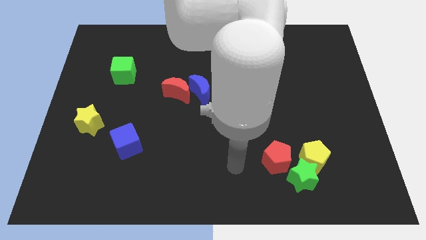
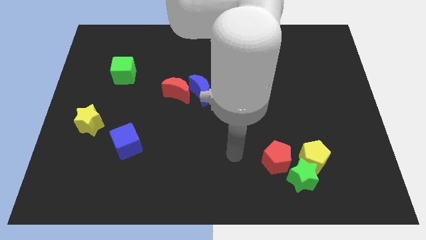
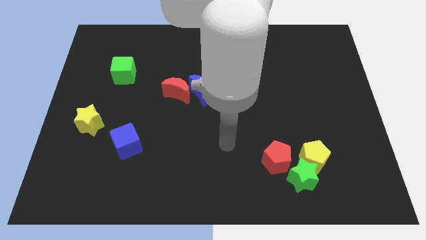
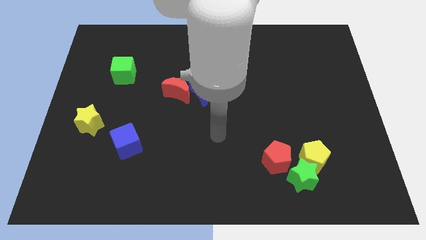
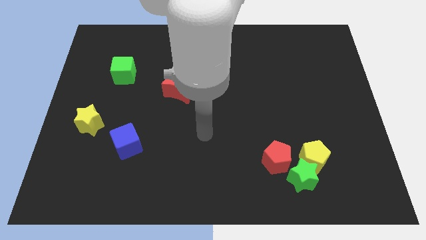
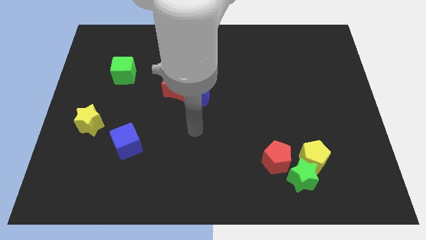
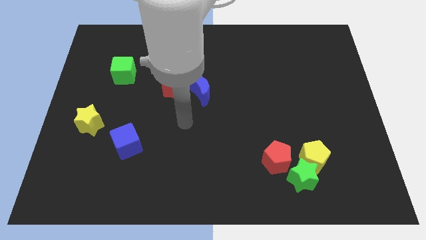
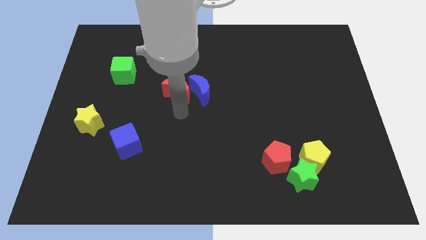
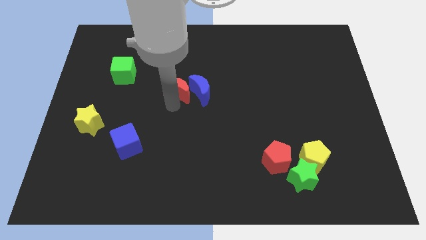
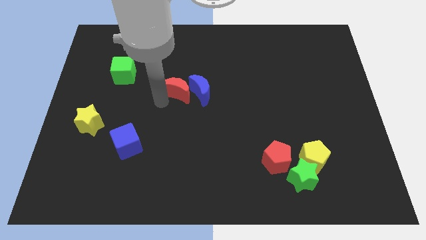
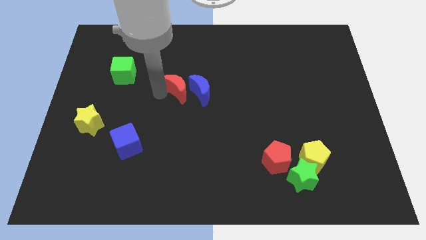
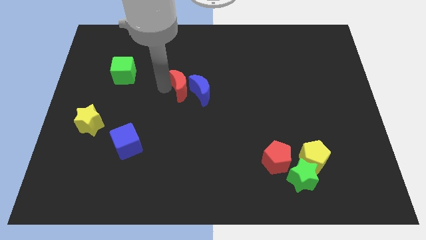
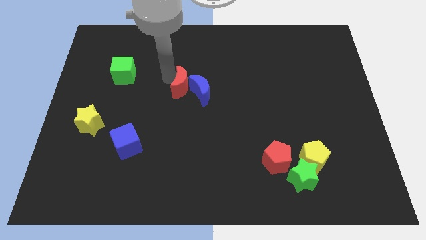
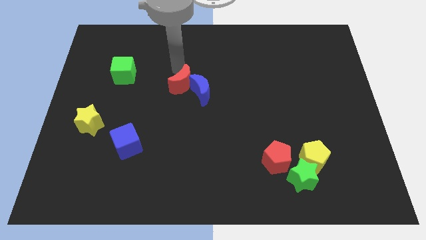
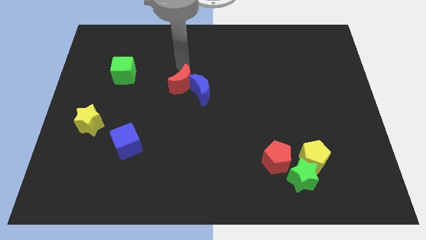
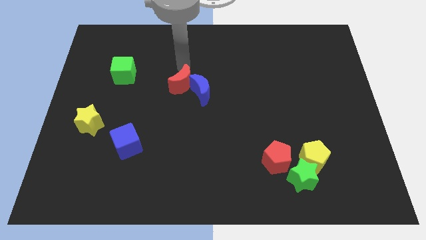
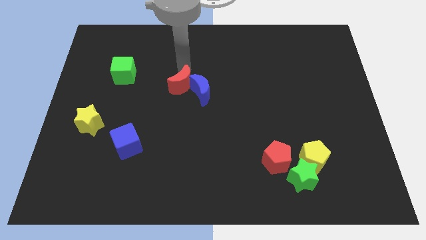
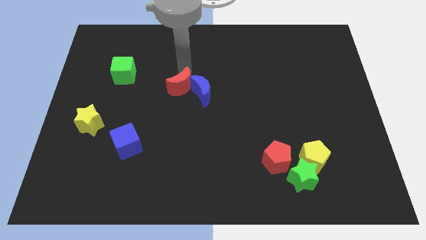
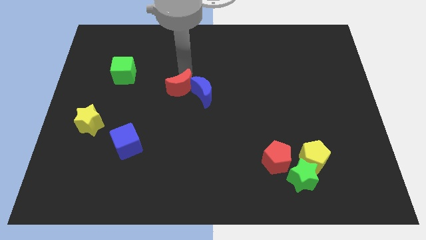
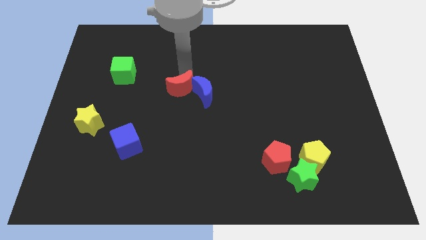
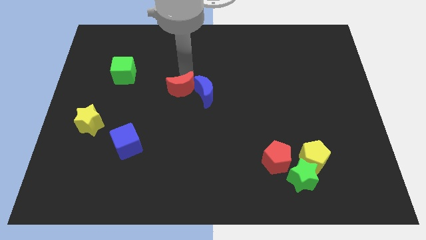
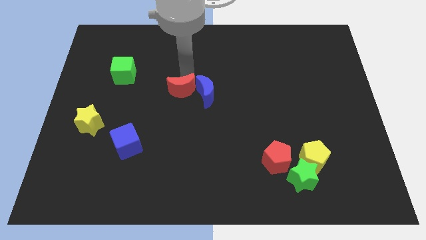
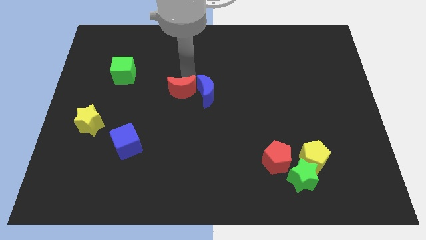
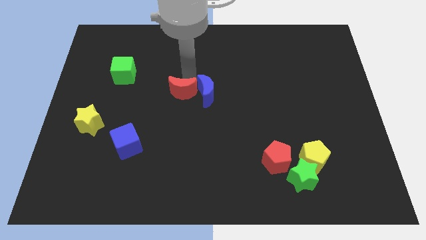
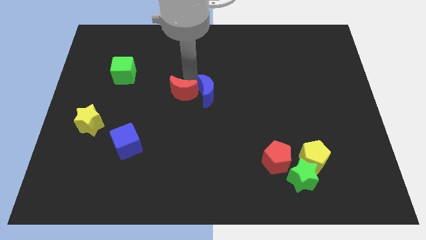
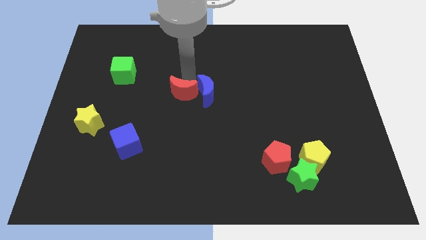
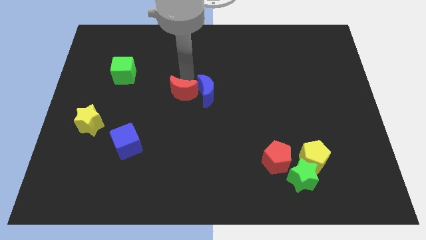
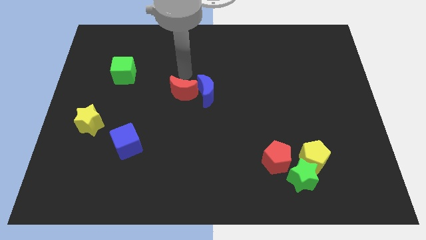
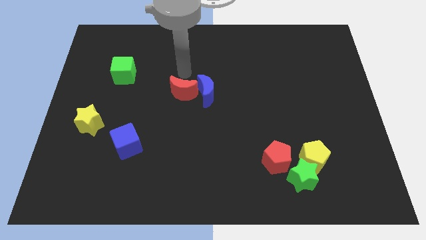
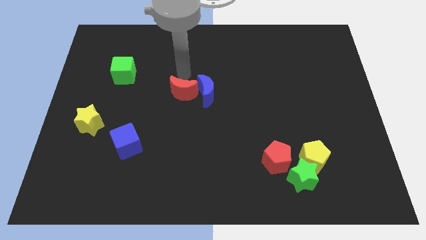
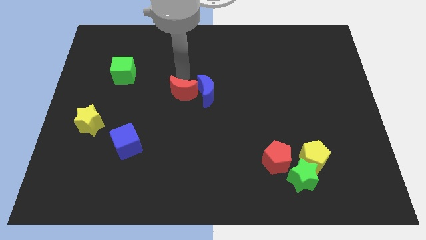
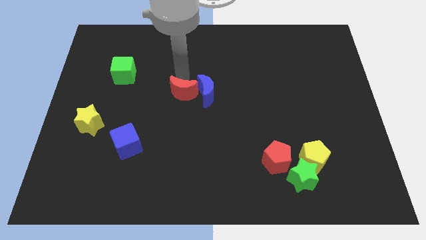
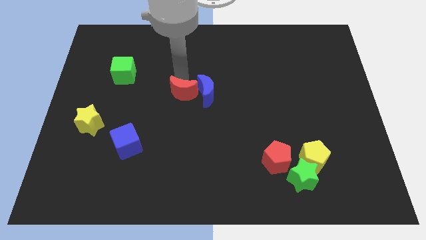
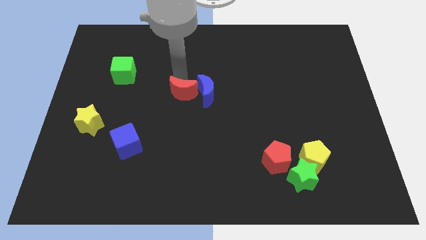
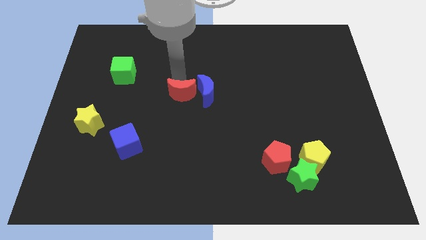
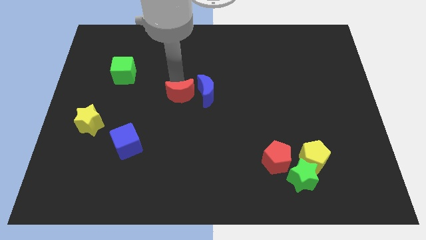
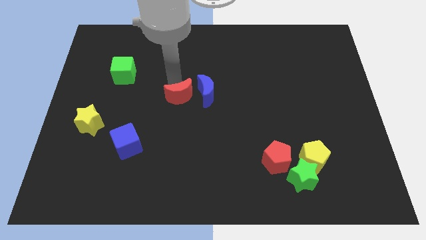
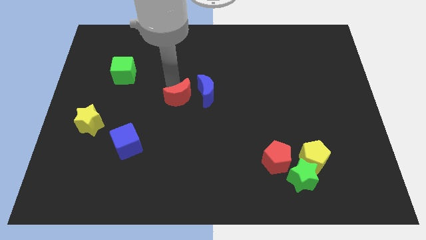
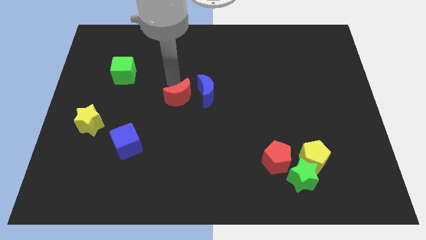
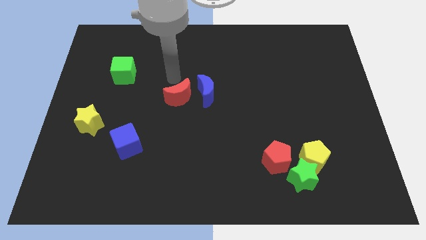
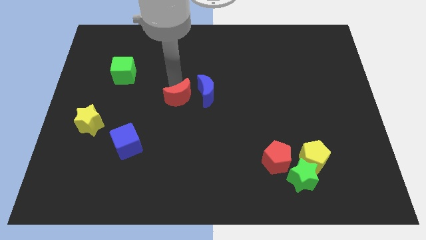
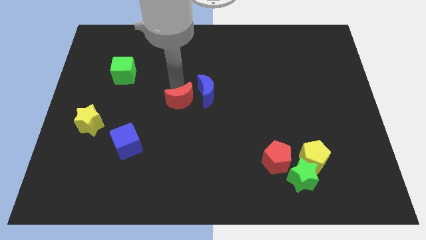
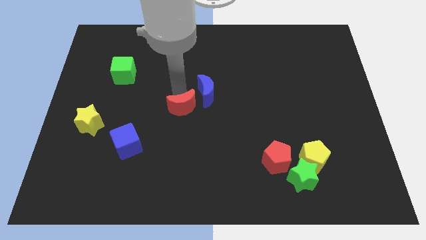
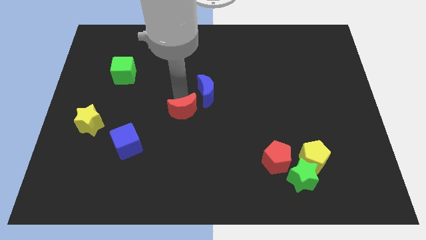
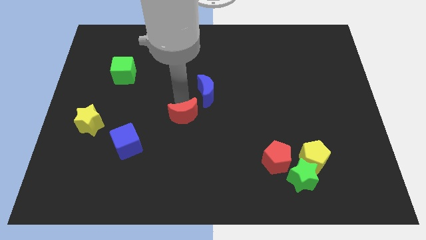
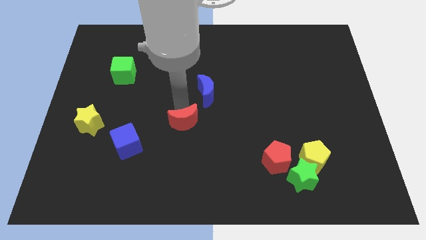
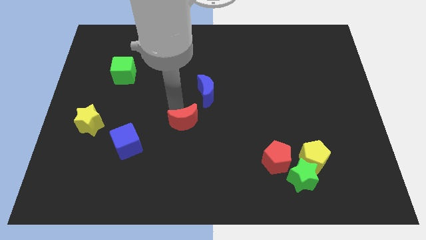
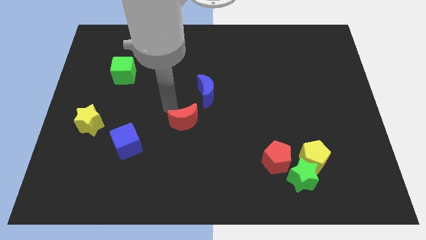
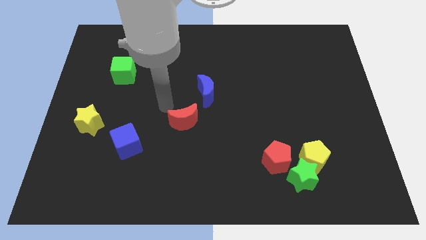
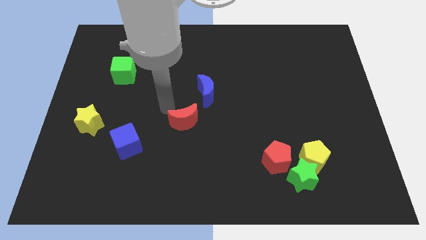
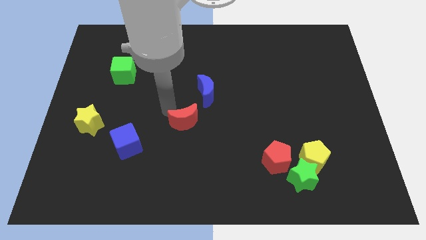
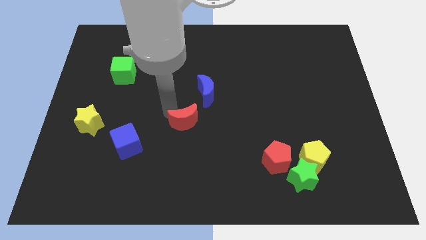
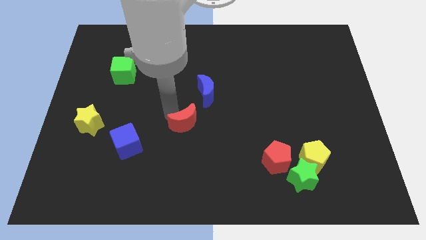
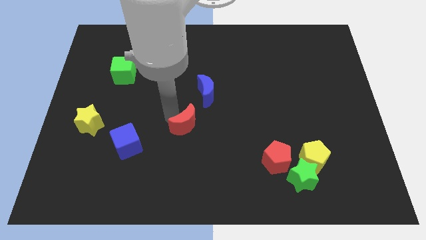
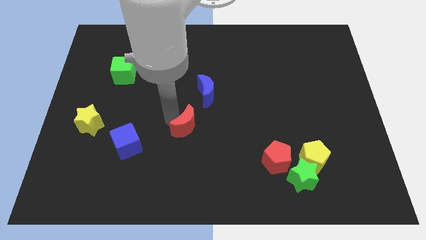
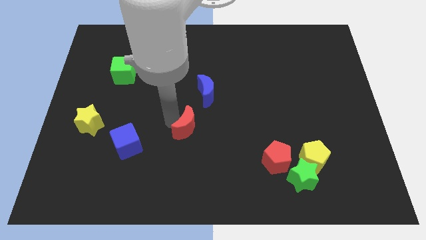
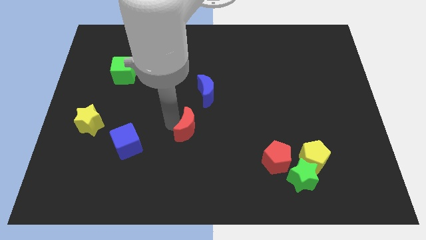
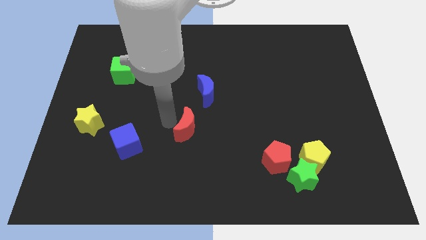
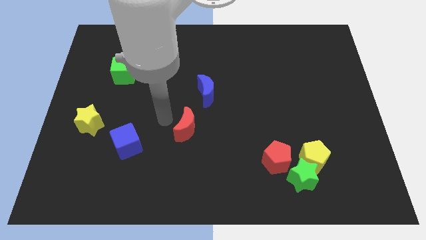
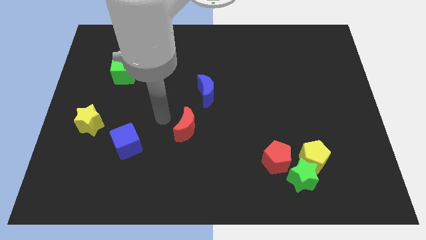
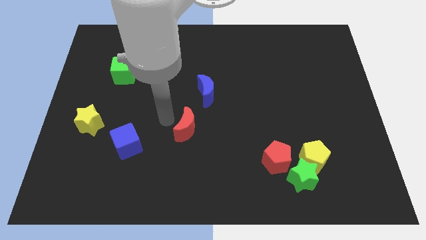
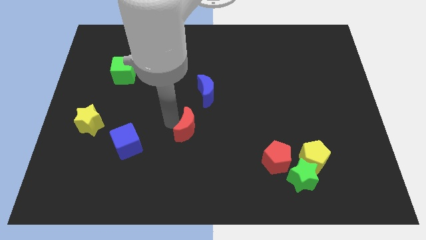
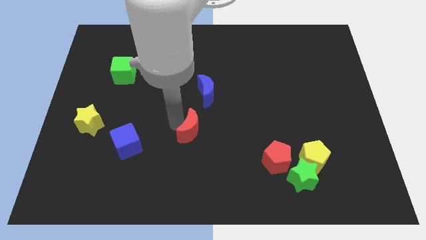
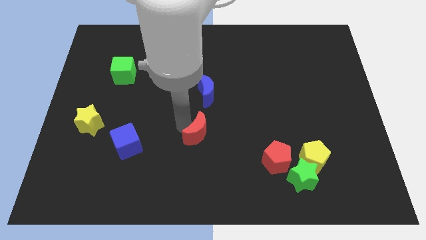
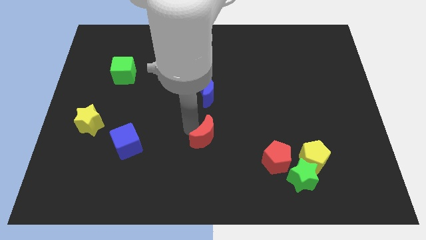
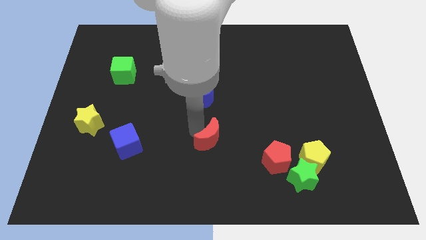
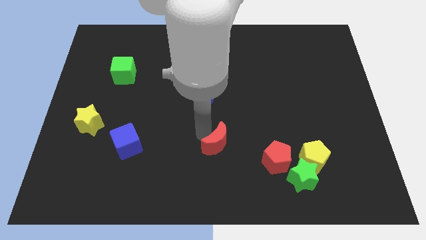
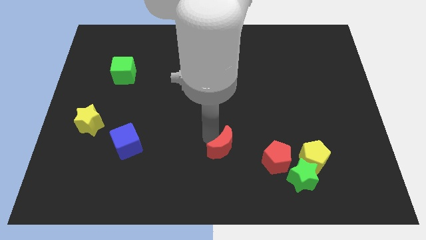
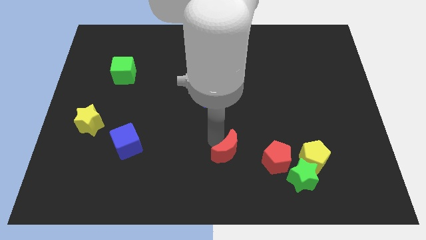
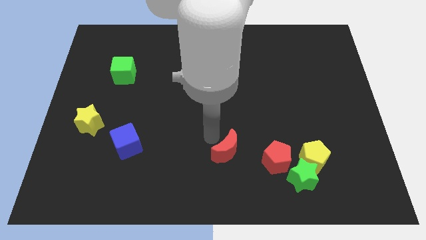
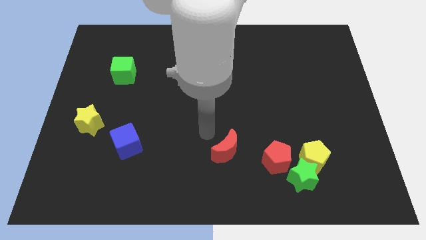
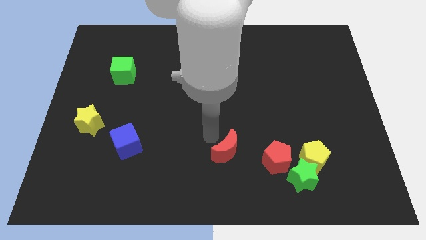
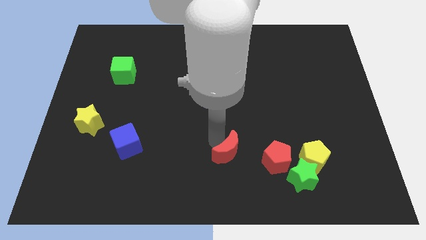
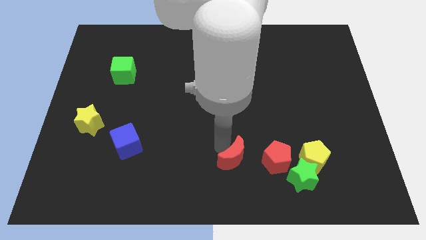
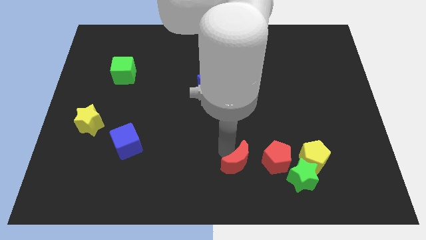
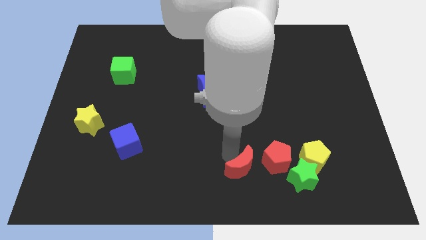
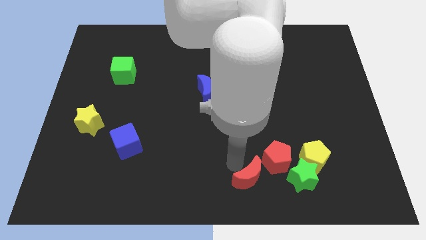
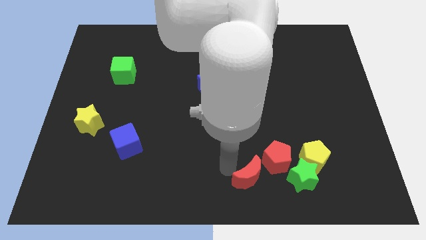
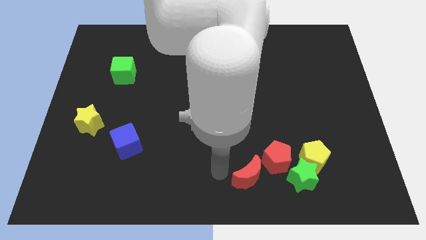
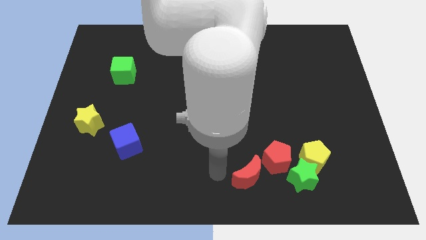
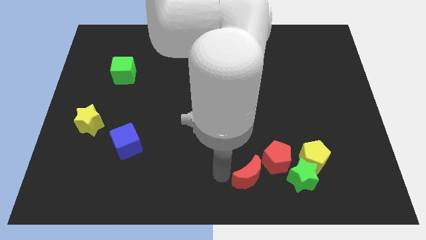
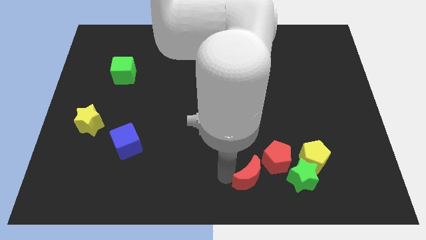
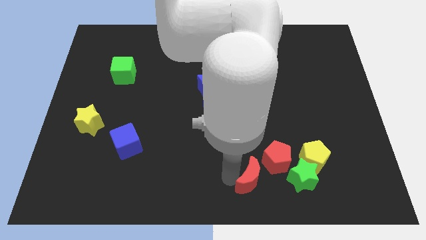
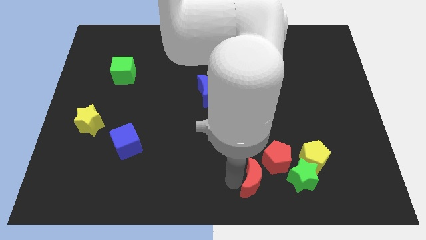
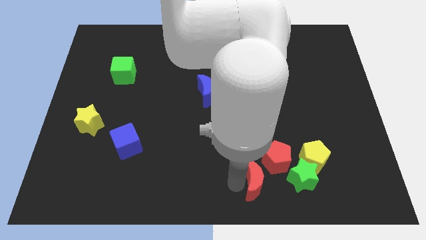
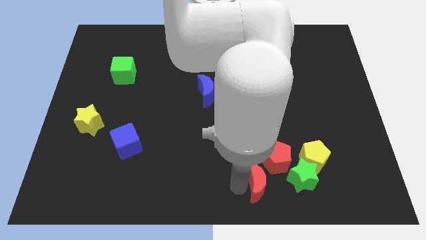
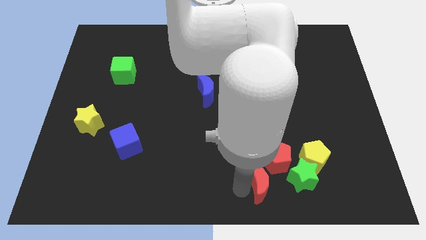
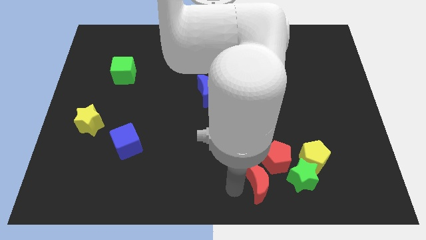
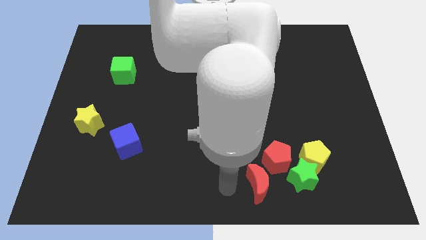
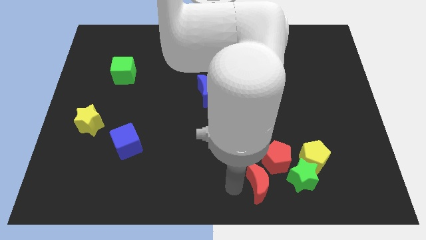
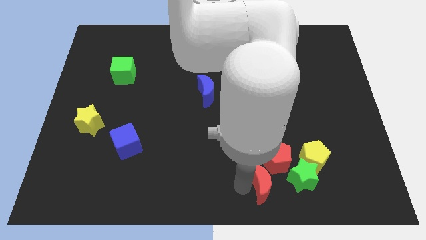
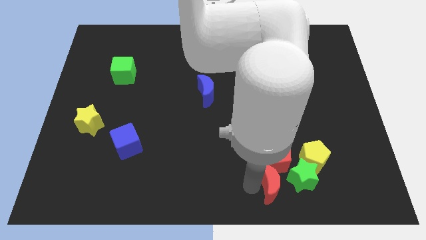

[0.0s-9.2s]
move the red moon diagonally down and to the left of the yellow pentagon
